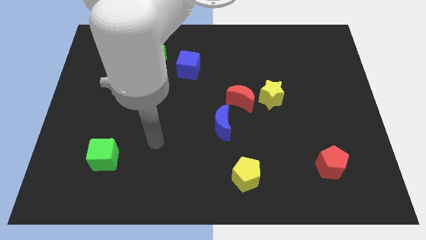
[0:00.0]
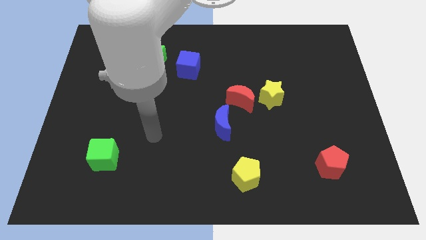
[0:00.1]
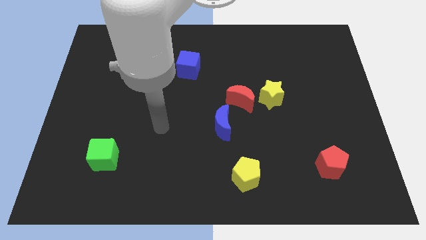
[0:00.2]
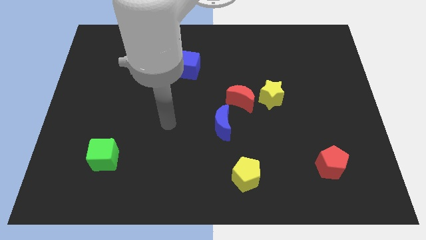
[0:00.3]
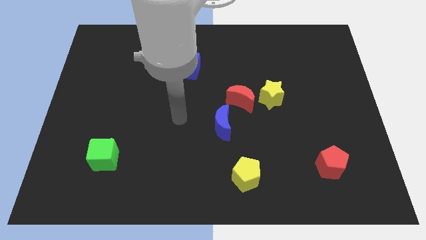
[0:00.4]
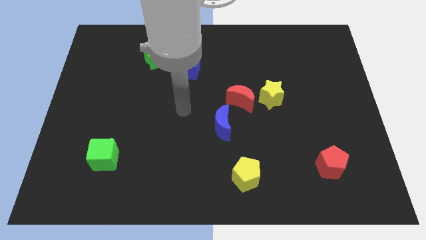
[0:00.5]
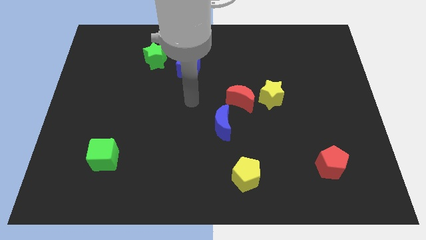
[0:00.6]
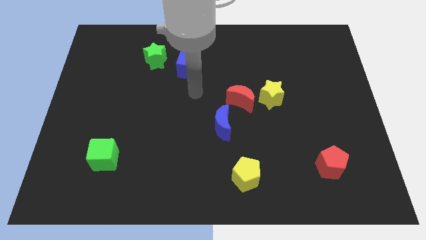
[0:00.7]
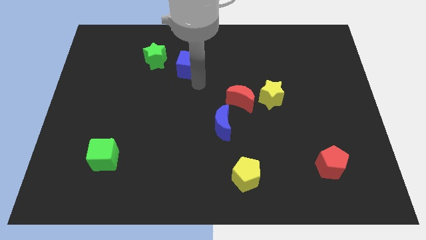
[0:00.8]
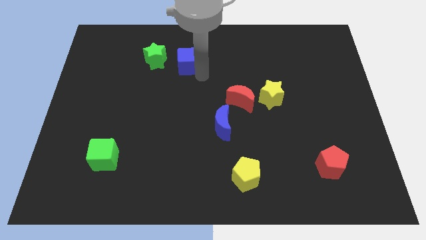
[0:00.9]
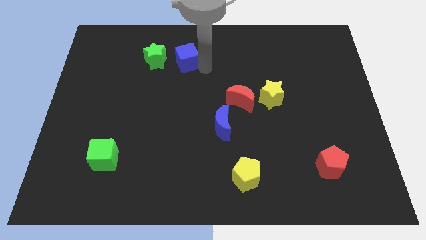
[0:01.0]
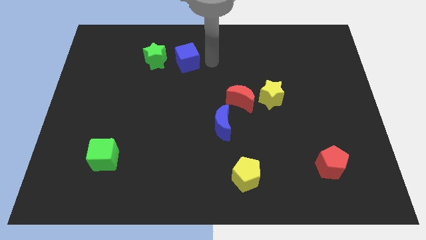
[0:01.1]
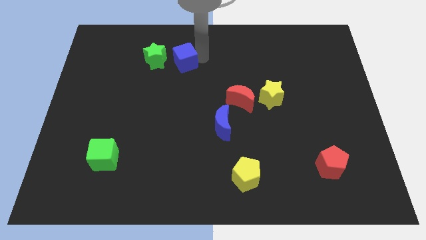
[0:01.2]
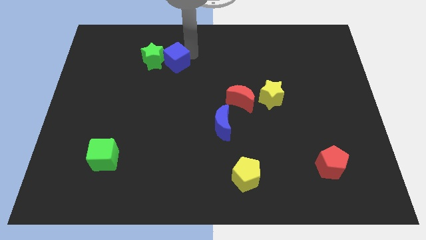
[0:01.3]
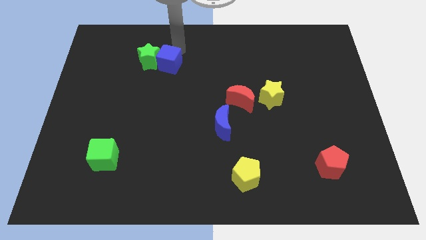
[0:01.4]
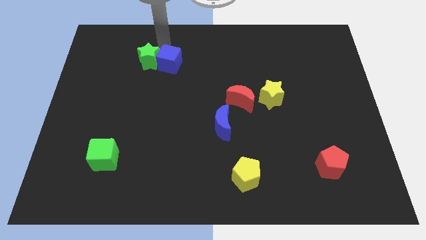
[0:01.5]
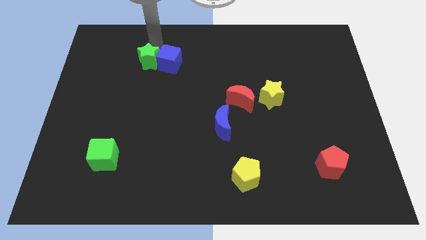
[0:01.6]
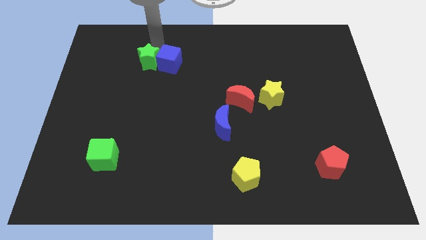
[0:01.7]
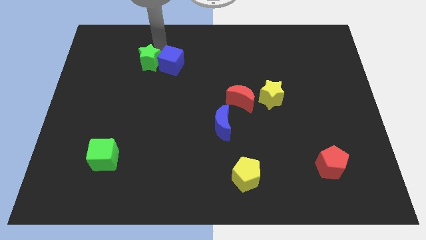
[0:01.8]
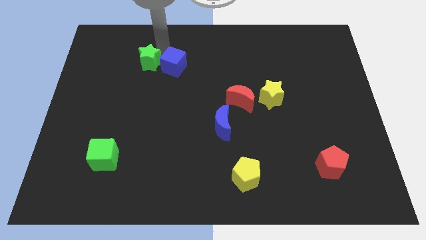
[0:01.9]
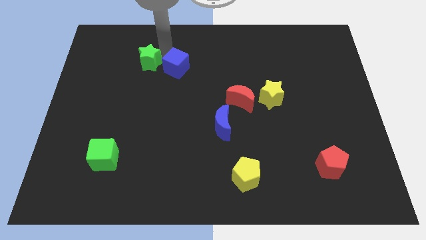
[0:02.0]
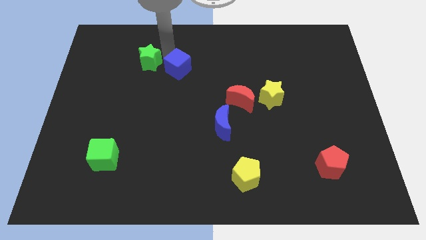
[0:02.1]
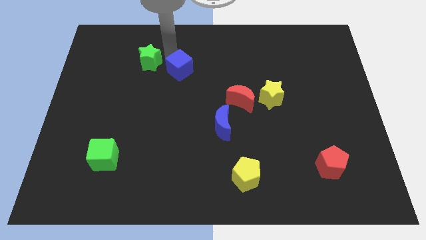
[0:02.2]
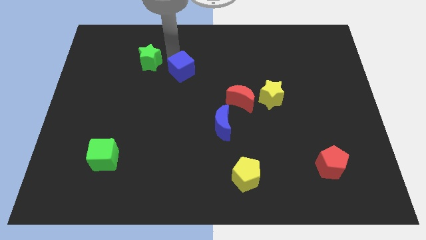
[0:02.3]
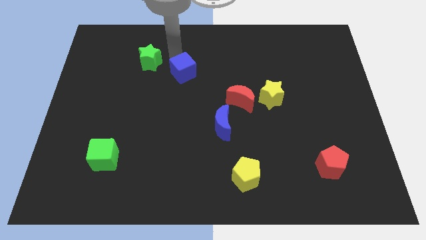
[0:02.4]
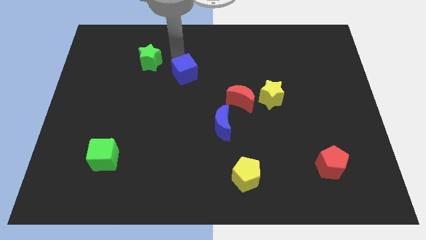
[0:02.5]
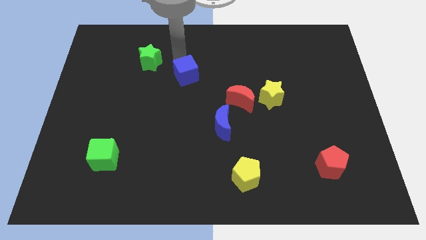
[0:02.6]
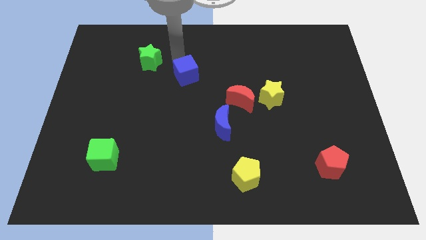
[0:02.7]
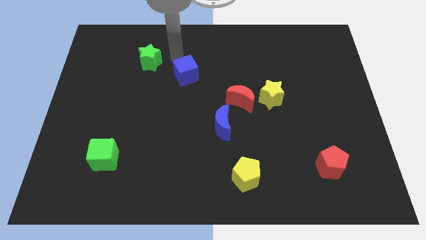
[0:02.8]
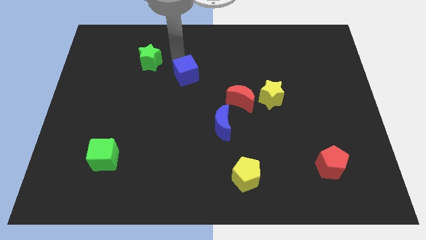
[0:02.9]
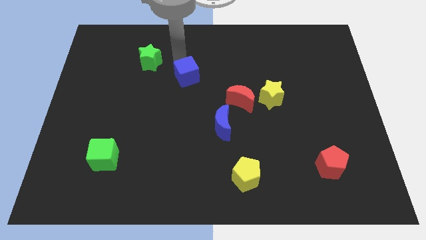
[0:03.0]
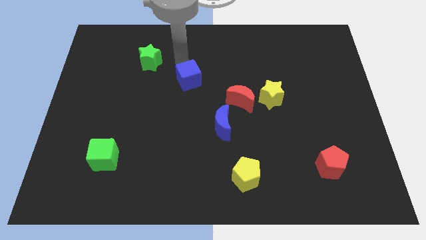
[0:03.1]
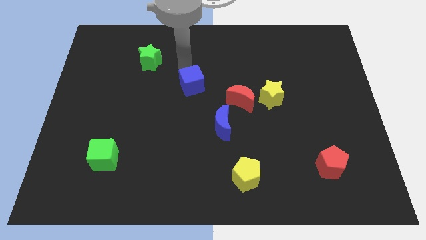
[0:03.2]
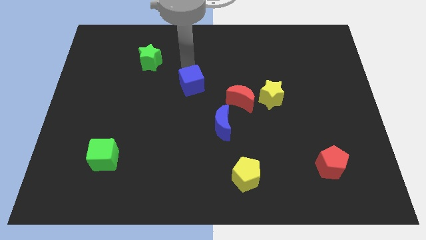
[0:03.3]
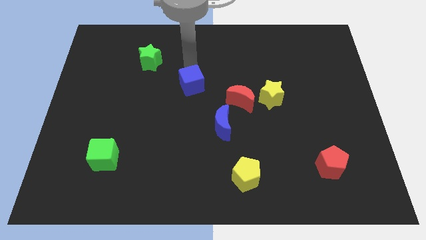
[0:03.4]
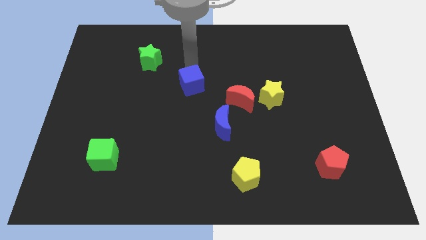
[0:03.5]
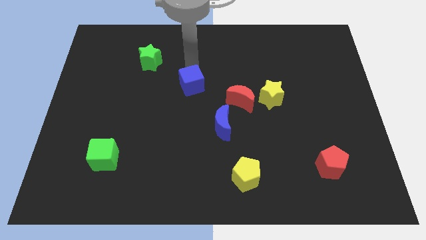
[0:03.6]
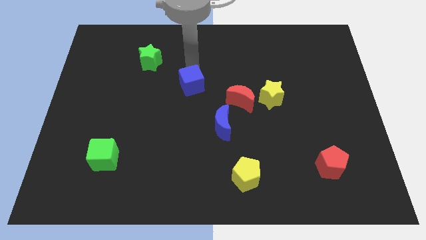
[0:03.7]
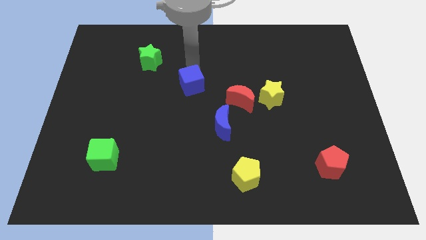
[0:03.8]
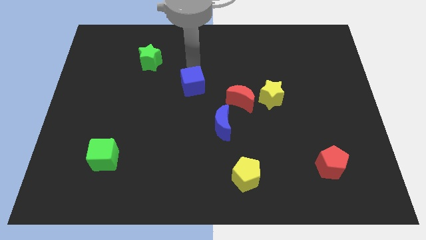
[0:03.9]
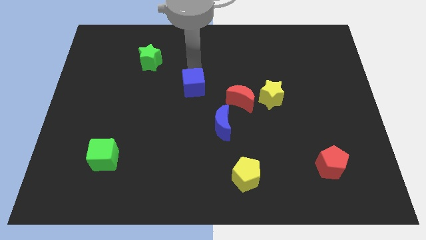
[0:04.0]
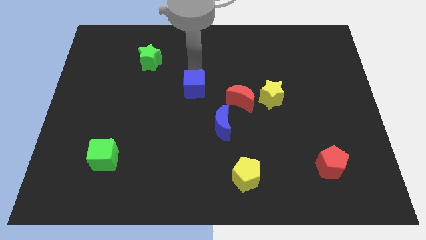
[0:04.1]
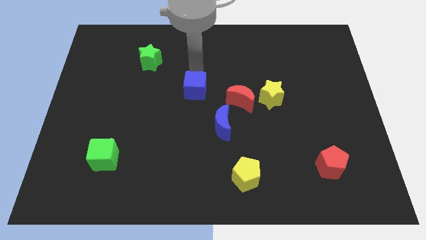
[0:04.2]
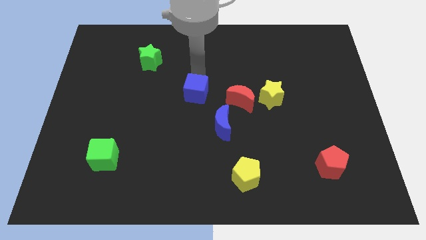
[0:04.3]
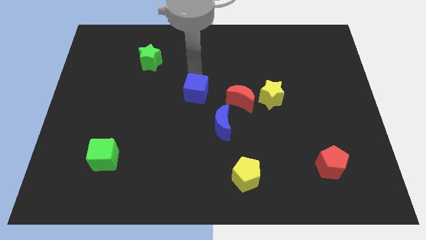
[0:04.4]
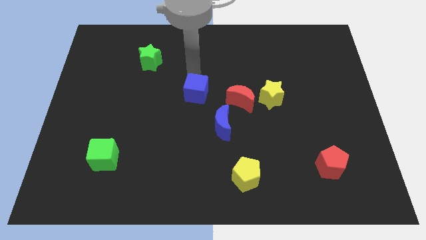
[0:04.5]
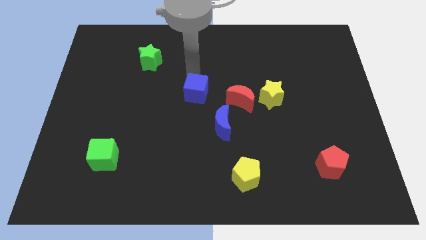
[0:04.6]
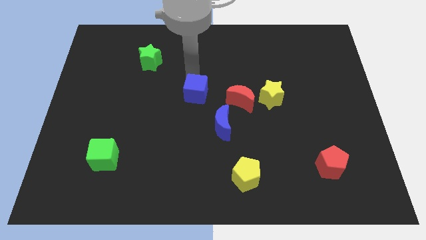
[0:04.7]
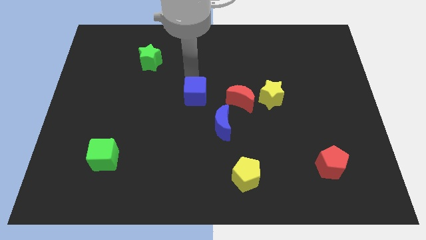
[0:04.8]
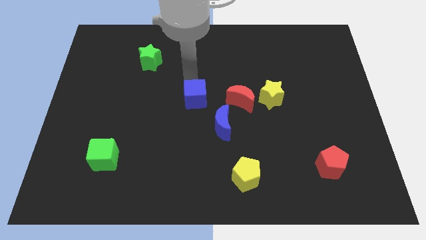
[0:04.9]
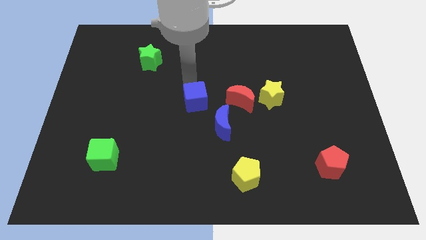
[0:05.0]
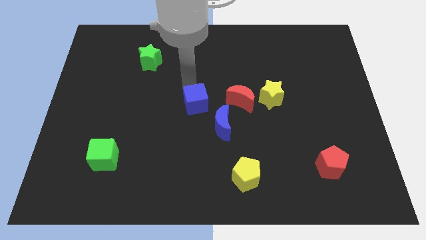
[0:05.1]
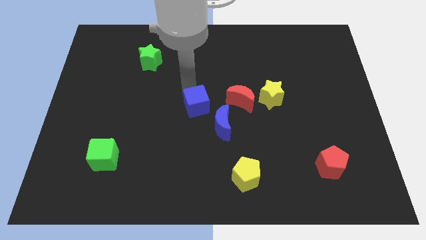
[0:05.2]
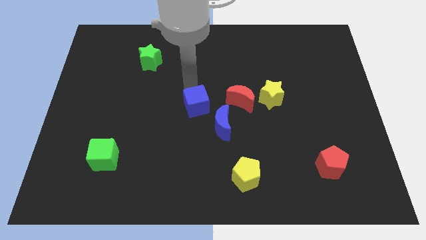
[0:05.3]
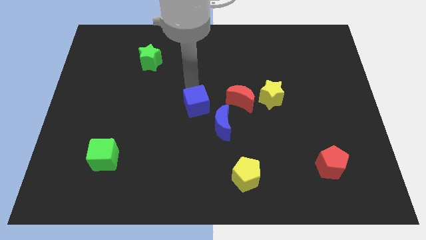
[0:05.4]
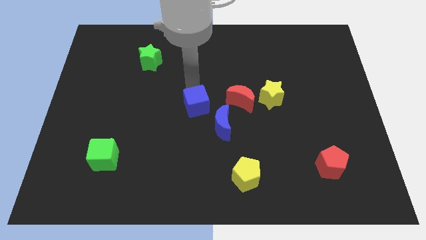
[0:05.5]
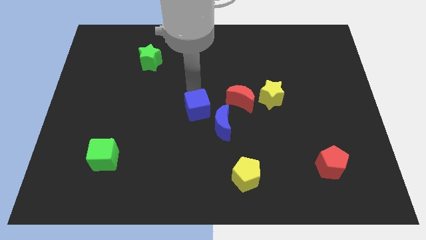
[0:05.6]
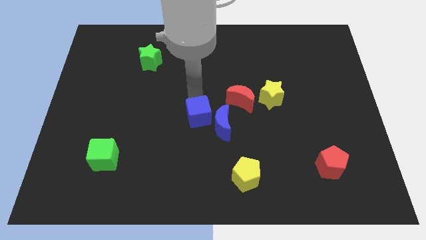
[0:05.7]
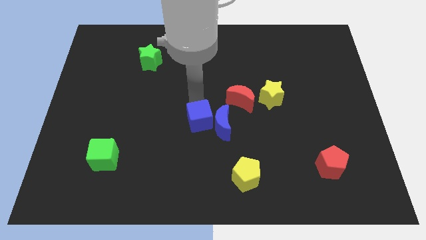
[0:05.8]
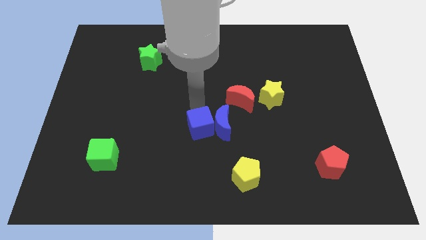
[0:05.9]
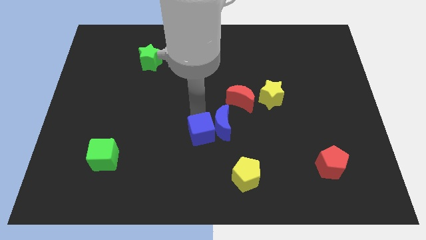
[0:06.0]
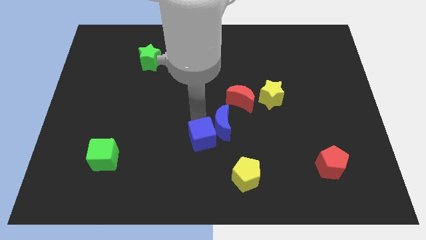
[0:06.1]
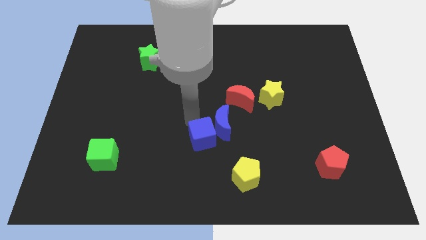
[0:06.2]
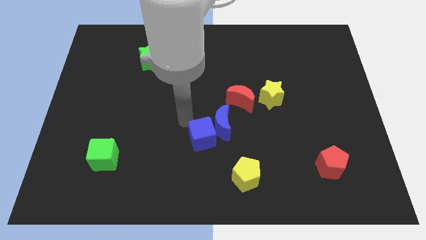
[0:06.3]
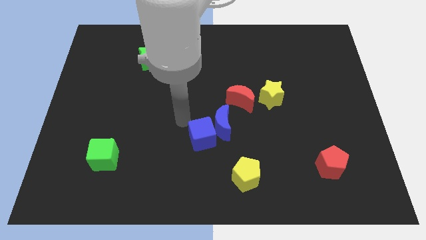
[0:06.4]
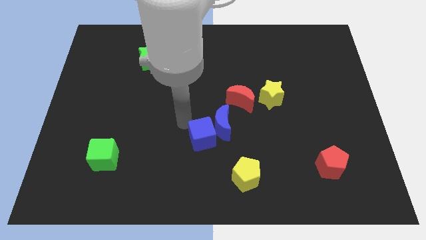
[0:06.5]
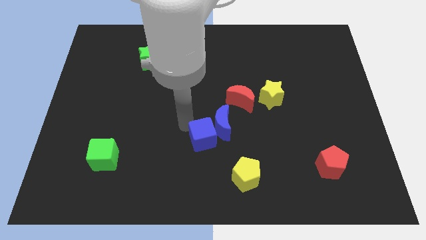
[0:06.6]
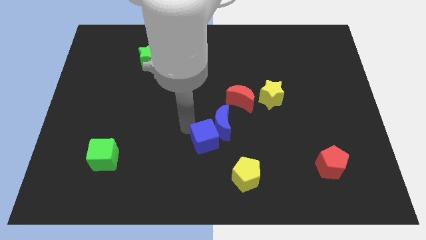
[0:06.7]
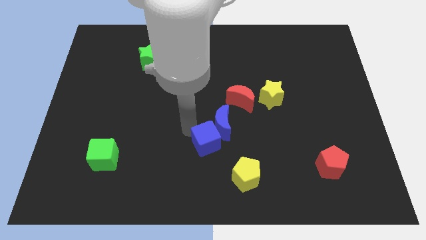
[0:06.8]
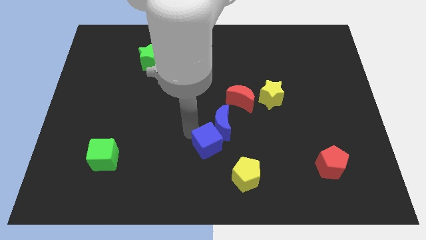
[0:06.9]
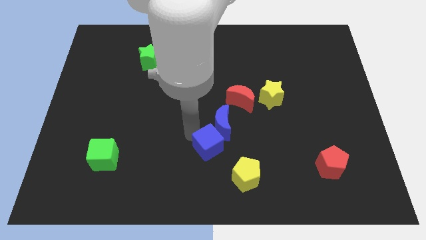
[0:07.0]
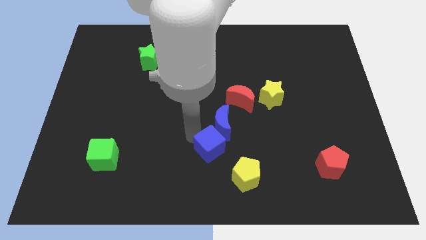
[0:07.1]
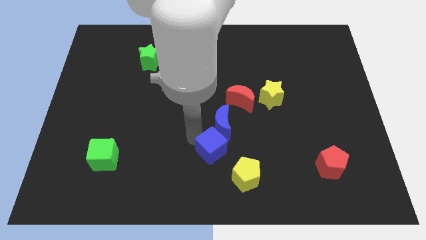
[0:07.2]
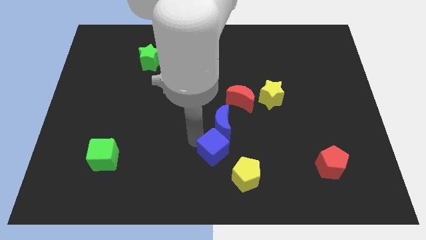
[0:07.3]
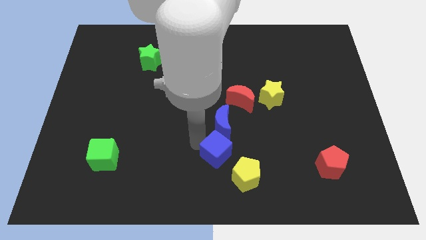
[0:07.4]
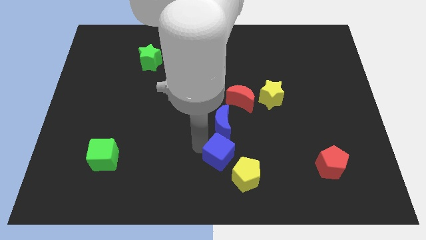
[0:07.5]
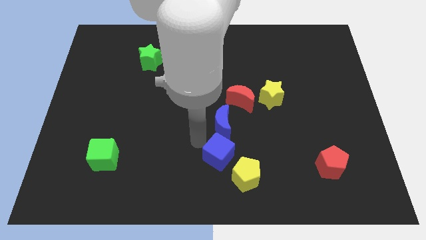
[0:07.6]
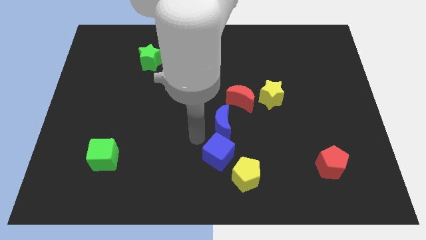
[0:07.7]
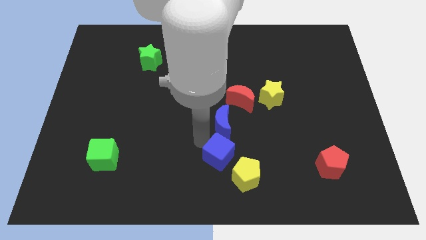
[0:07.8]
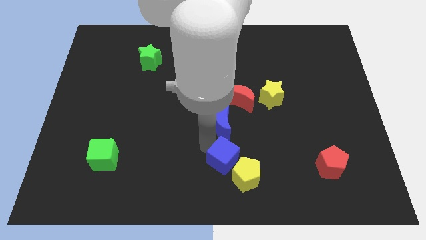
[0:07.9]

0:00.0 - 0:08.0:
put the blue cube close to the yellow pentagon
